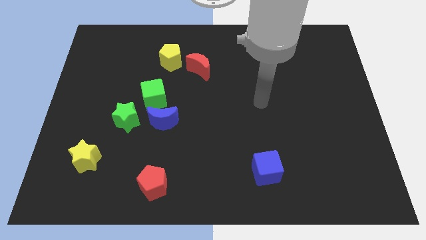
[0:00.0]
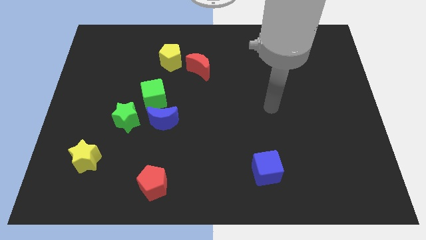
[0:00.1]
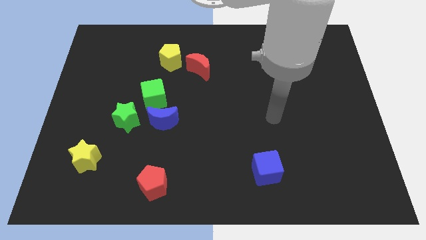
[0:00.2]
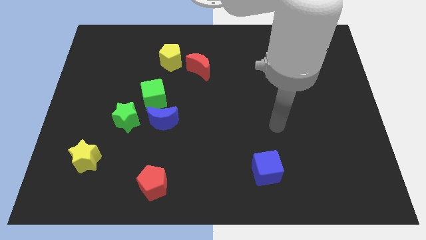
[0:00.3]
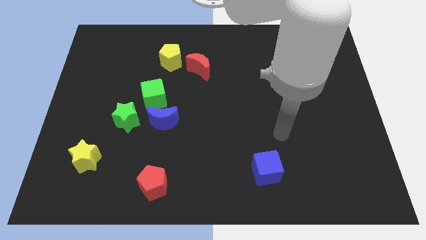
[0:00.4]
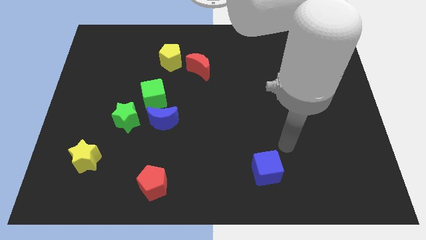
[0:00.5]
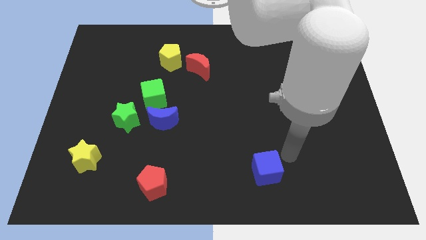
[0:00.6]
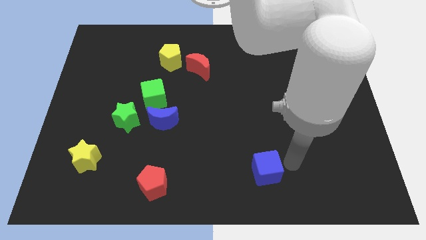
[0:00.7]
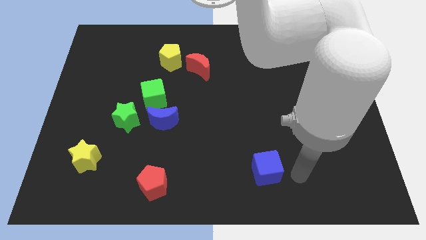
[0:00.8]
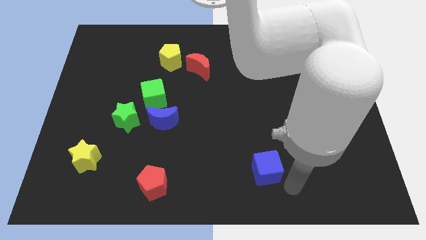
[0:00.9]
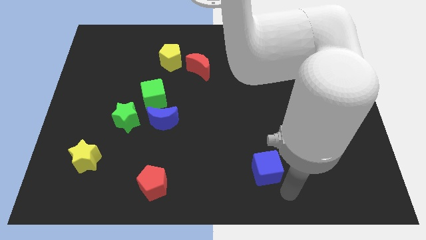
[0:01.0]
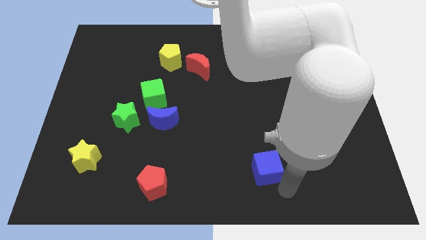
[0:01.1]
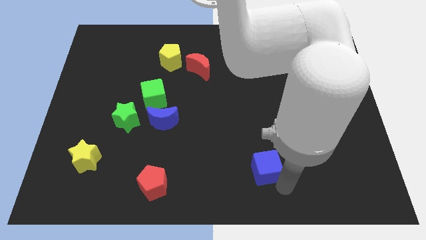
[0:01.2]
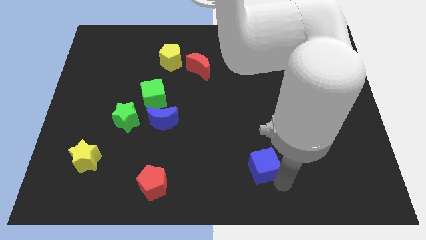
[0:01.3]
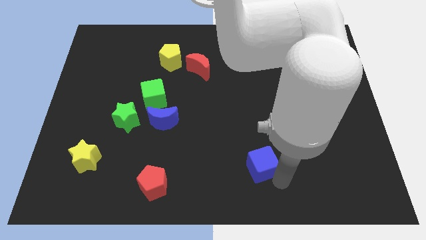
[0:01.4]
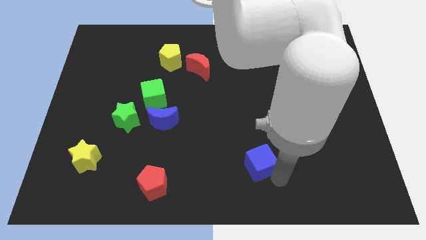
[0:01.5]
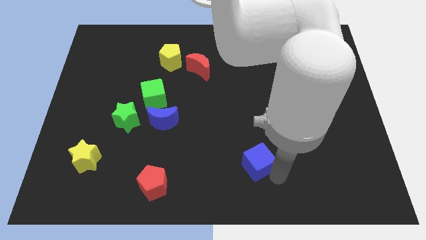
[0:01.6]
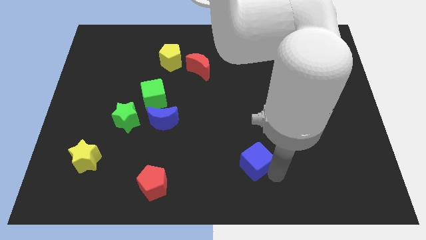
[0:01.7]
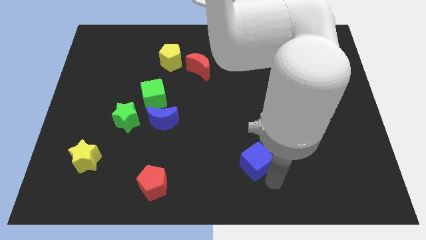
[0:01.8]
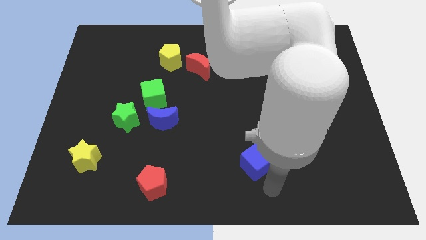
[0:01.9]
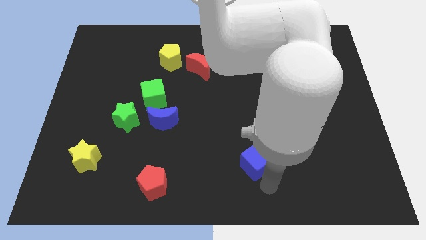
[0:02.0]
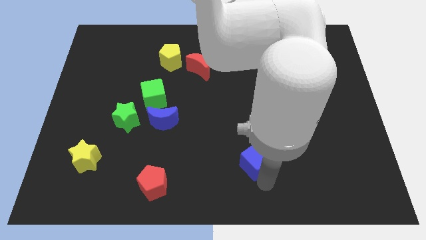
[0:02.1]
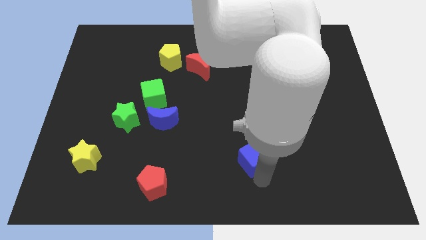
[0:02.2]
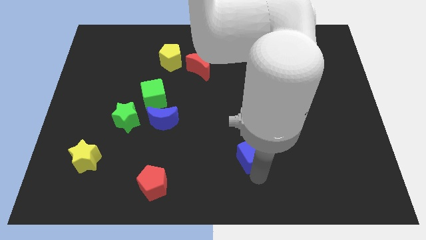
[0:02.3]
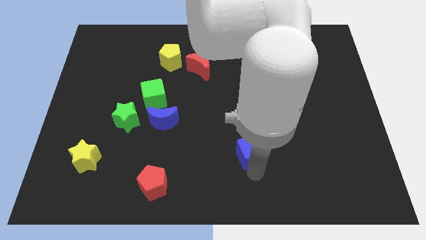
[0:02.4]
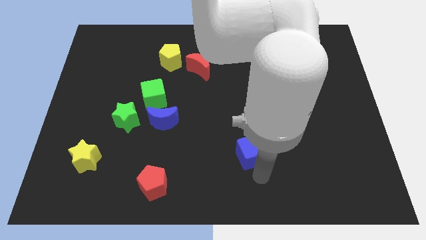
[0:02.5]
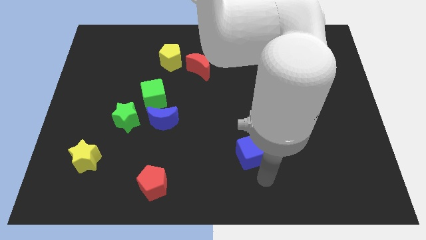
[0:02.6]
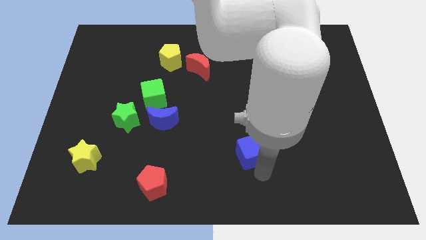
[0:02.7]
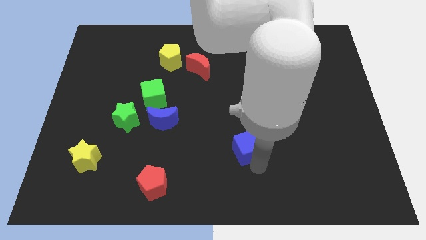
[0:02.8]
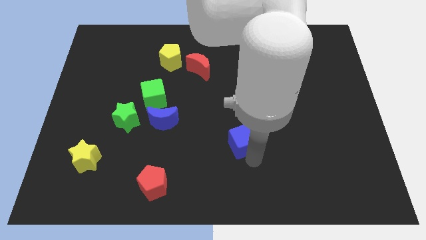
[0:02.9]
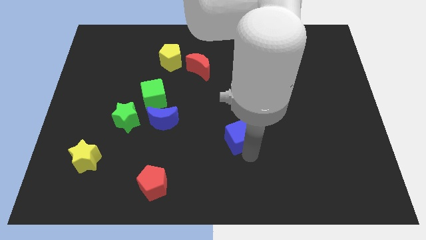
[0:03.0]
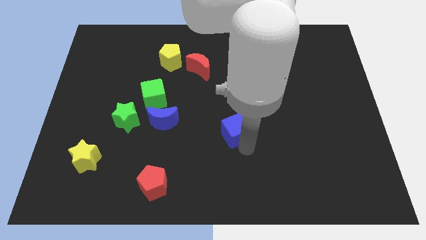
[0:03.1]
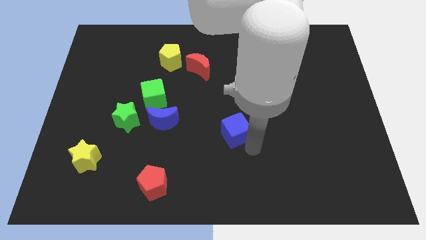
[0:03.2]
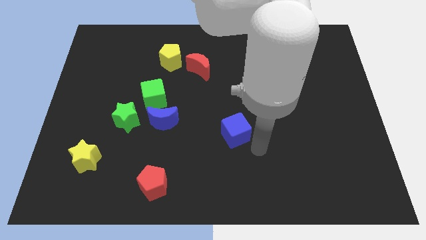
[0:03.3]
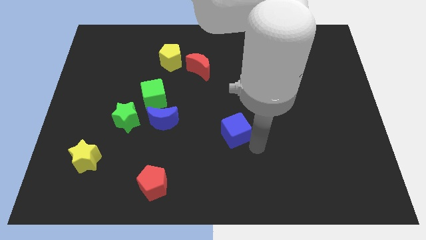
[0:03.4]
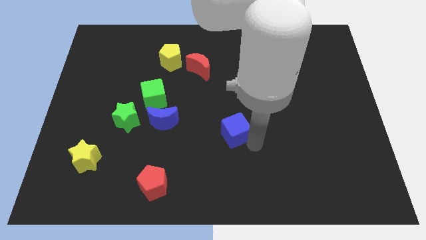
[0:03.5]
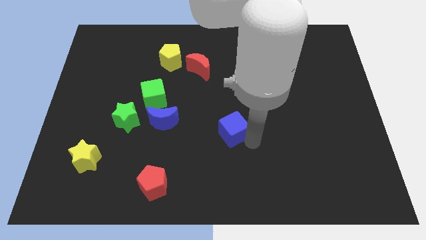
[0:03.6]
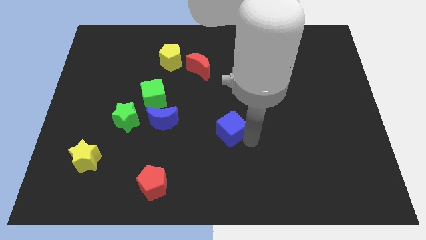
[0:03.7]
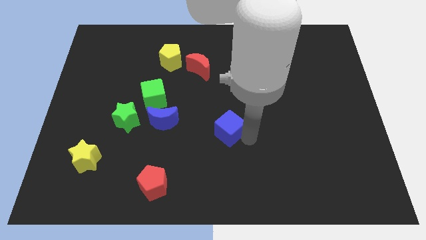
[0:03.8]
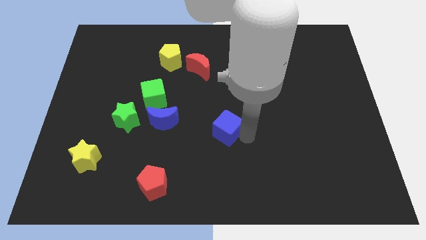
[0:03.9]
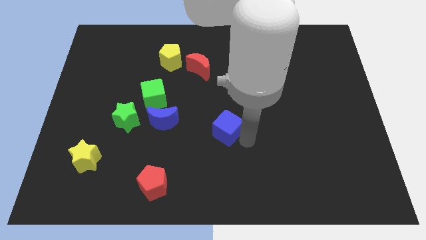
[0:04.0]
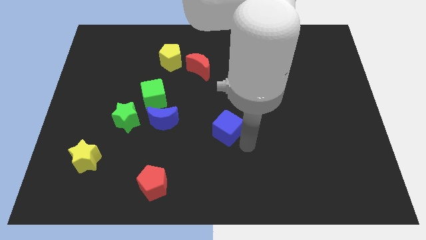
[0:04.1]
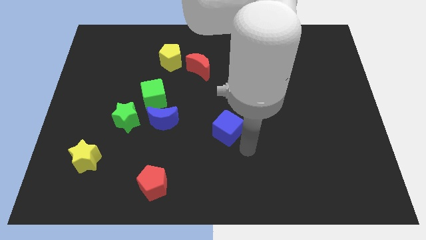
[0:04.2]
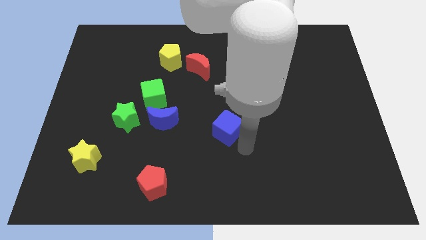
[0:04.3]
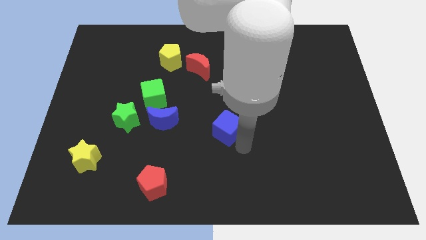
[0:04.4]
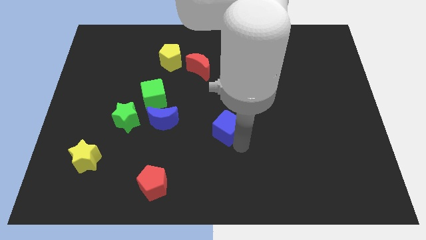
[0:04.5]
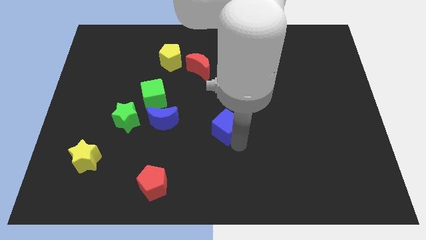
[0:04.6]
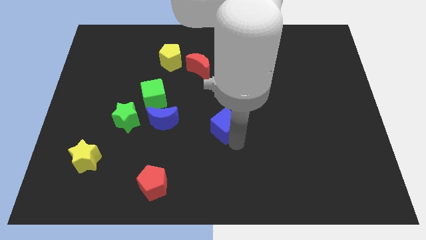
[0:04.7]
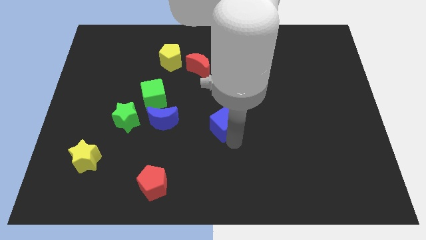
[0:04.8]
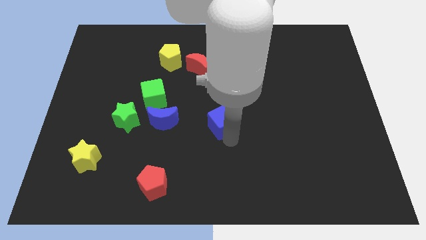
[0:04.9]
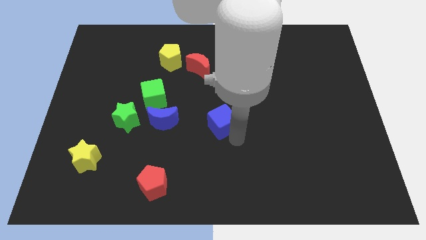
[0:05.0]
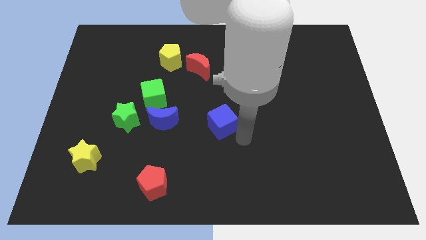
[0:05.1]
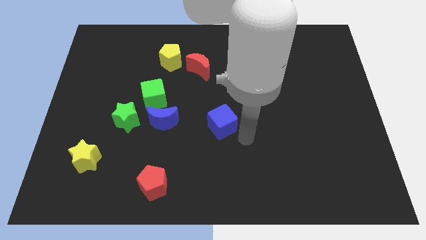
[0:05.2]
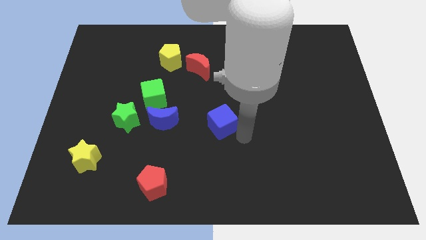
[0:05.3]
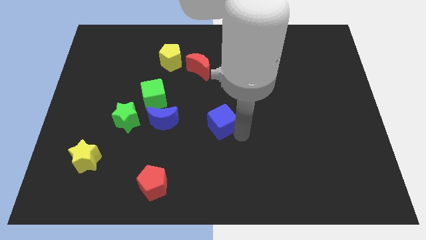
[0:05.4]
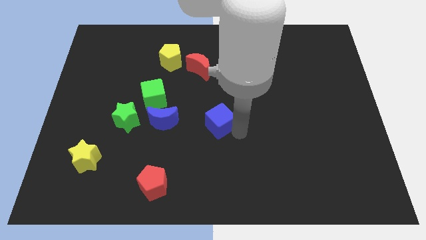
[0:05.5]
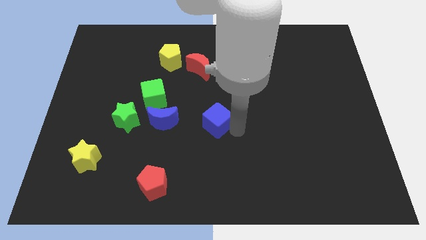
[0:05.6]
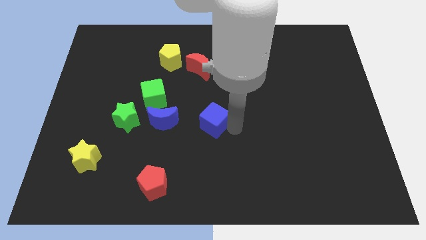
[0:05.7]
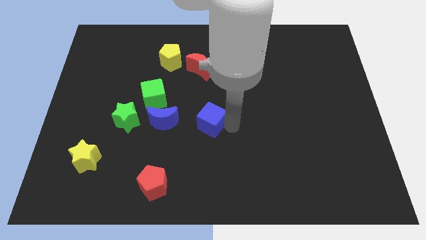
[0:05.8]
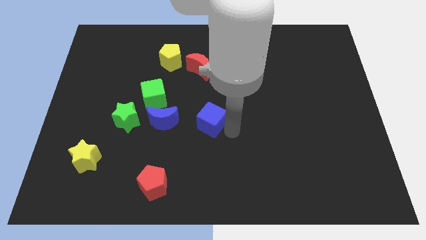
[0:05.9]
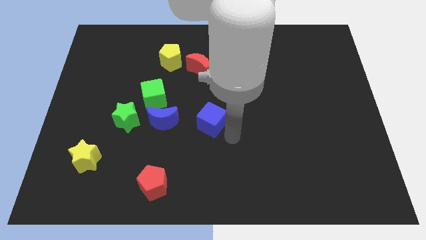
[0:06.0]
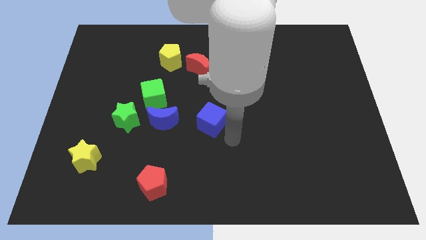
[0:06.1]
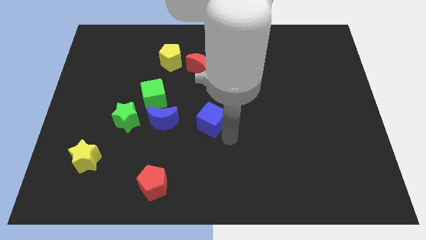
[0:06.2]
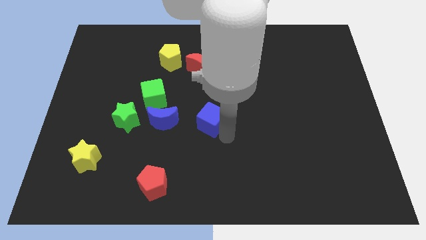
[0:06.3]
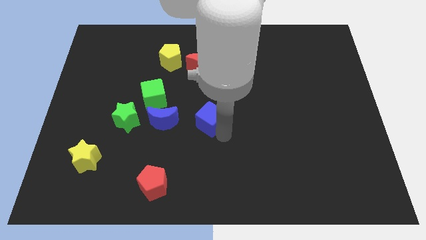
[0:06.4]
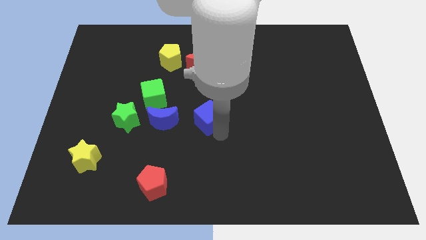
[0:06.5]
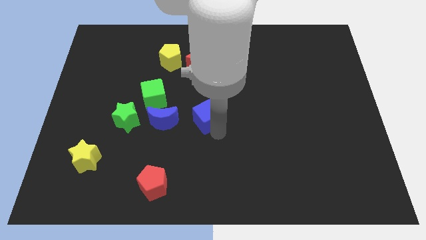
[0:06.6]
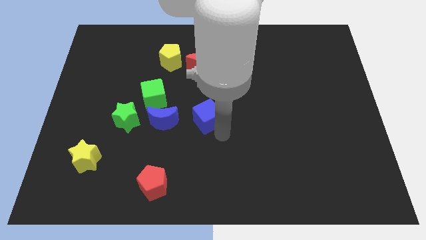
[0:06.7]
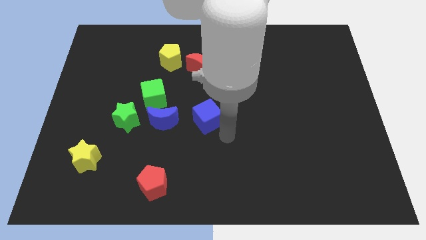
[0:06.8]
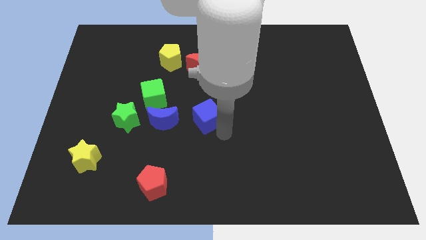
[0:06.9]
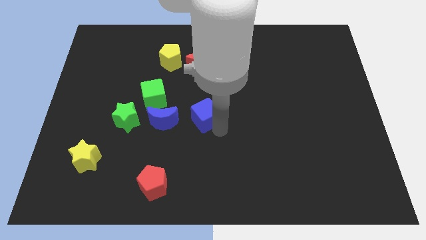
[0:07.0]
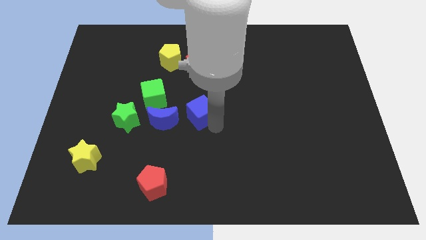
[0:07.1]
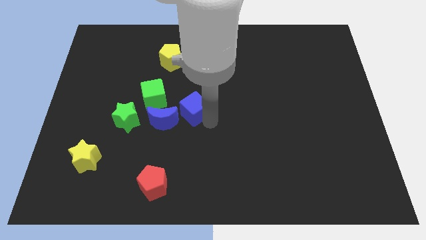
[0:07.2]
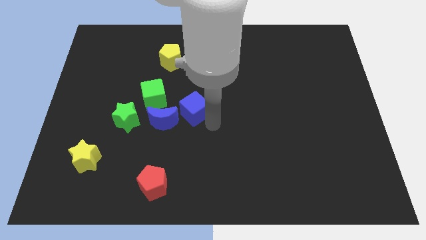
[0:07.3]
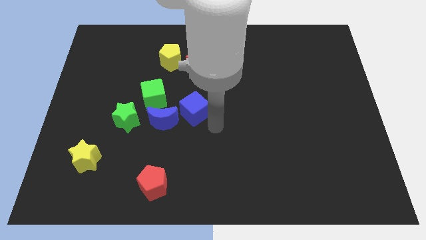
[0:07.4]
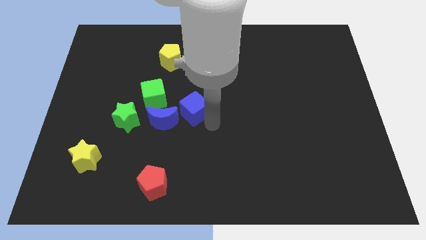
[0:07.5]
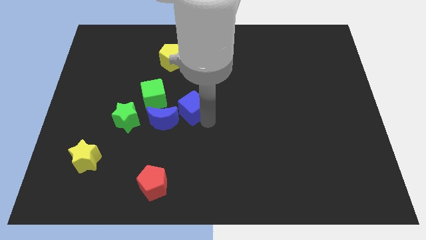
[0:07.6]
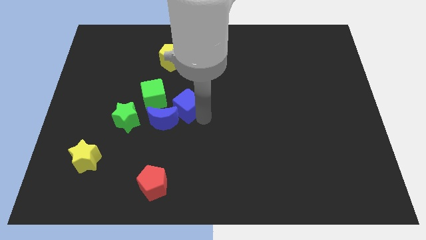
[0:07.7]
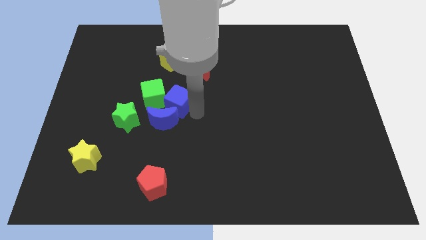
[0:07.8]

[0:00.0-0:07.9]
slide the blue cube towards the green cube
